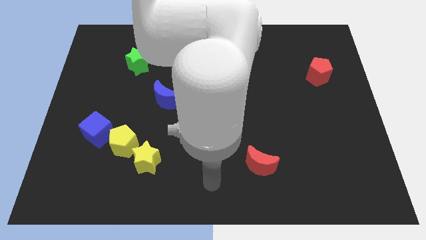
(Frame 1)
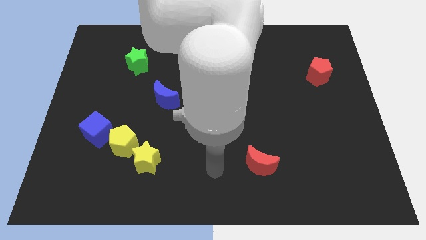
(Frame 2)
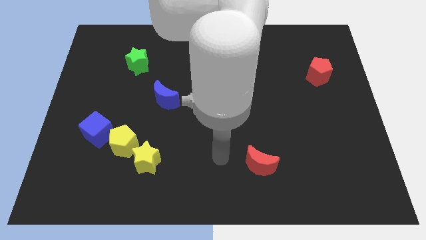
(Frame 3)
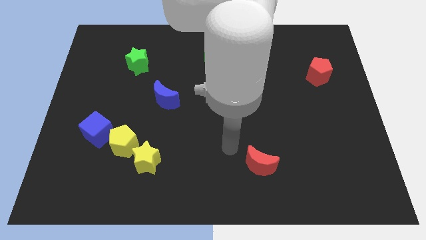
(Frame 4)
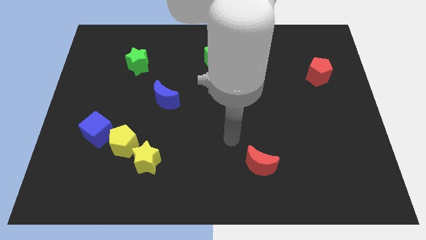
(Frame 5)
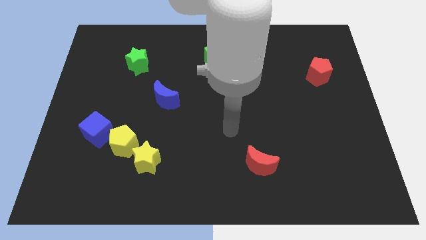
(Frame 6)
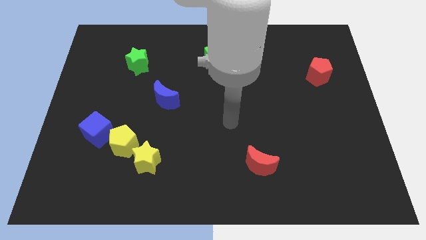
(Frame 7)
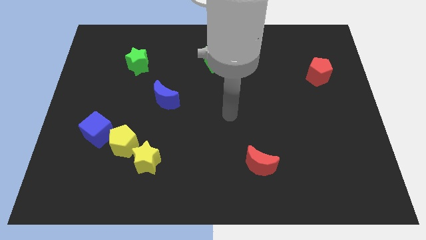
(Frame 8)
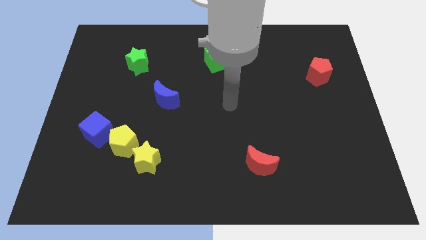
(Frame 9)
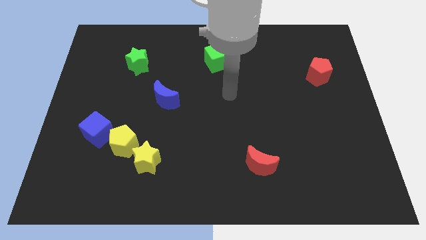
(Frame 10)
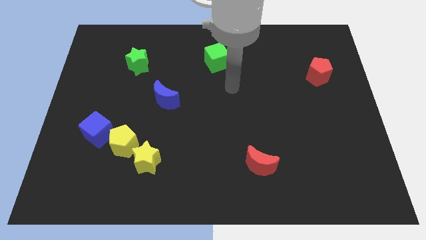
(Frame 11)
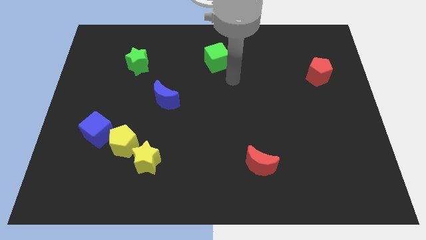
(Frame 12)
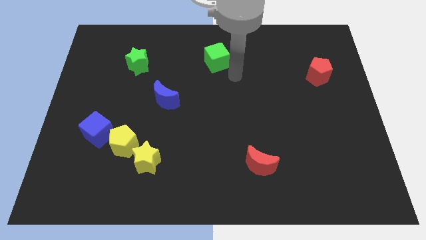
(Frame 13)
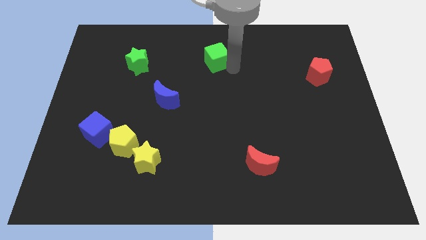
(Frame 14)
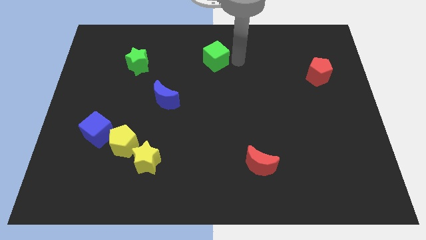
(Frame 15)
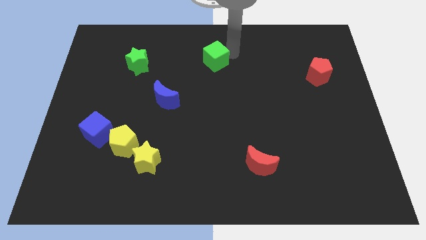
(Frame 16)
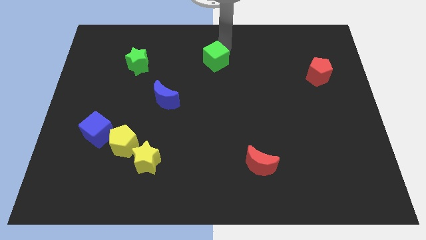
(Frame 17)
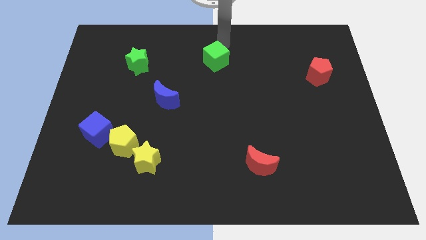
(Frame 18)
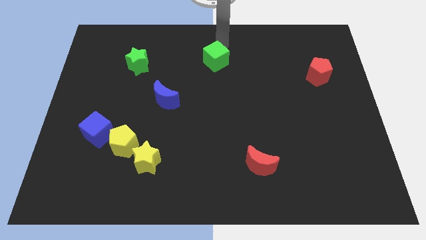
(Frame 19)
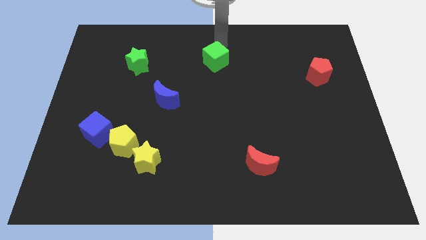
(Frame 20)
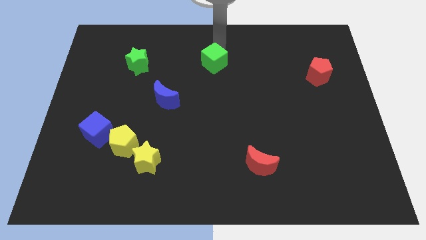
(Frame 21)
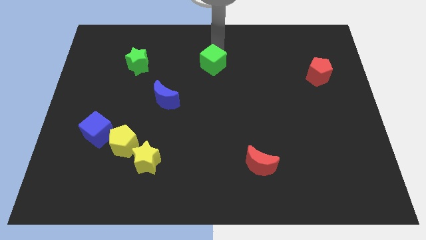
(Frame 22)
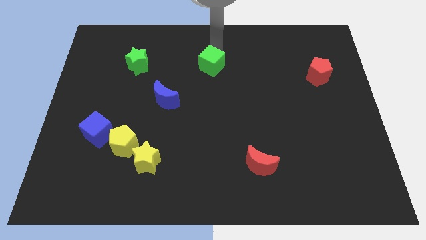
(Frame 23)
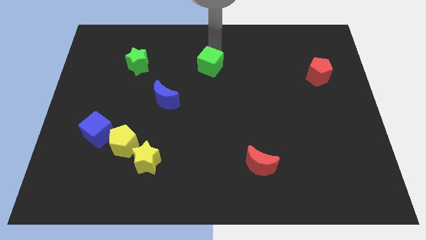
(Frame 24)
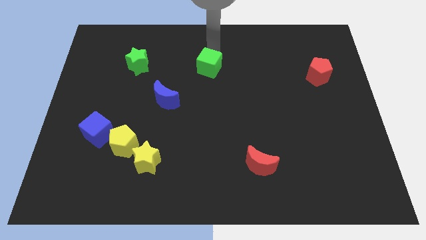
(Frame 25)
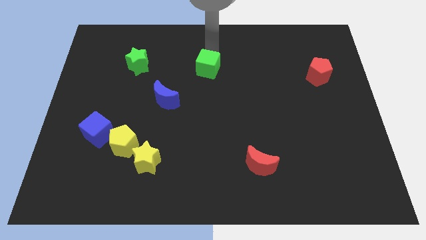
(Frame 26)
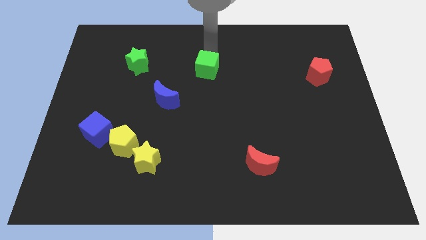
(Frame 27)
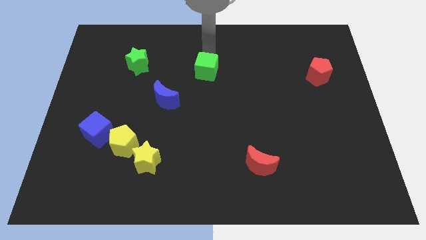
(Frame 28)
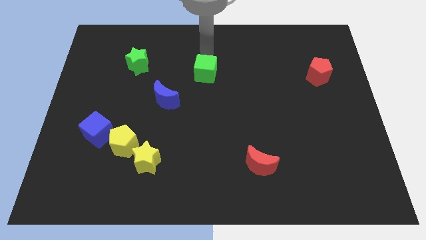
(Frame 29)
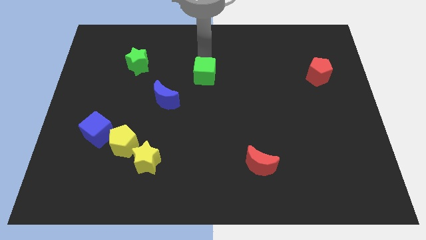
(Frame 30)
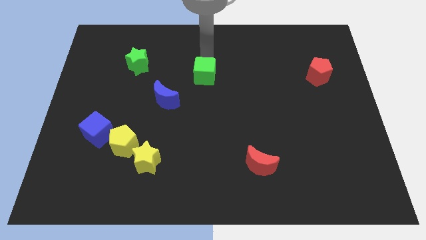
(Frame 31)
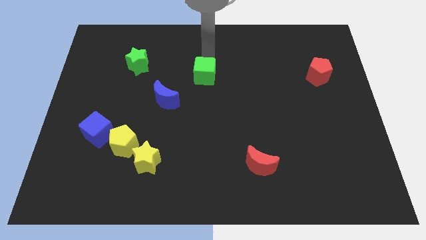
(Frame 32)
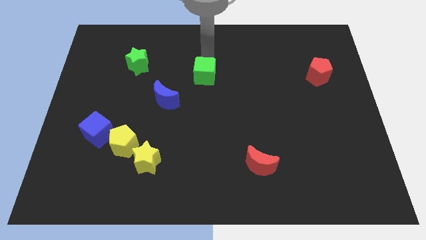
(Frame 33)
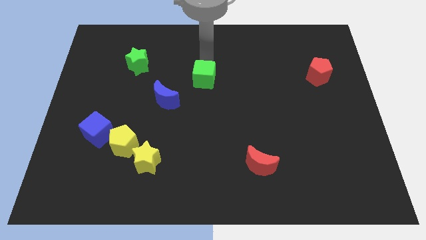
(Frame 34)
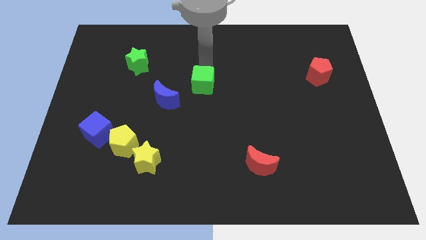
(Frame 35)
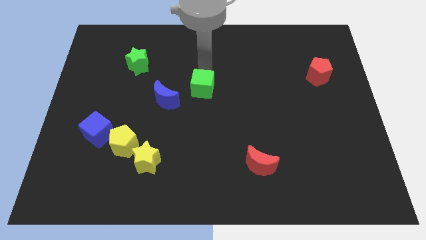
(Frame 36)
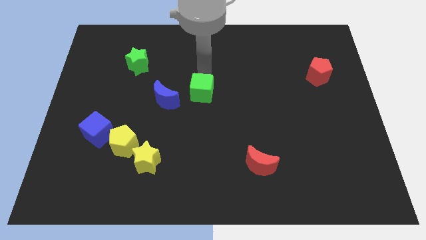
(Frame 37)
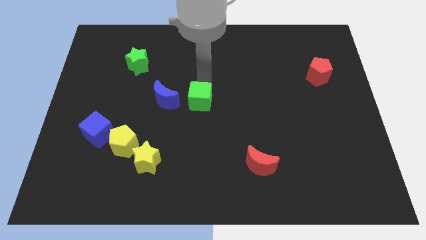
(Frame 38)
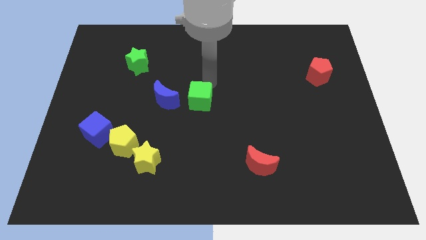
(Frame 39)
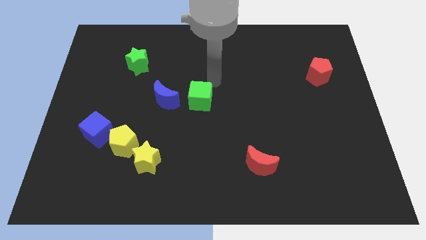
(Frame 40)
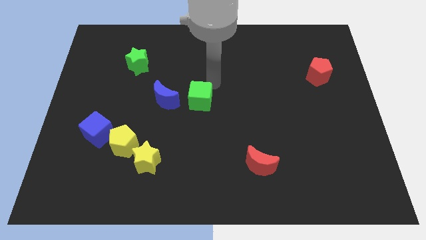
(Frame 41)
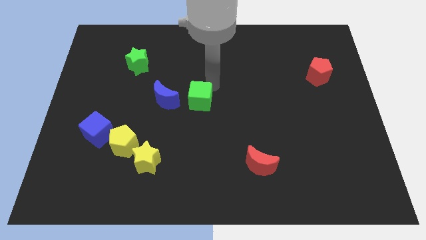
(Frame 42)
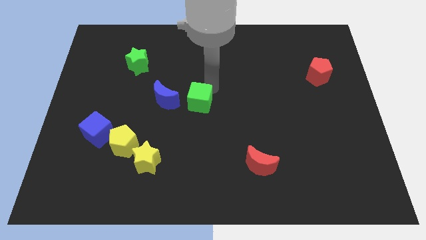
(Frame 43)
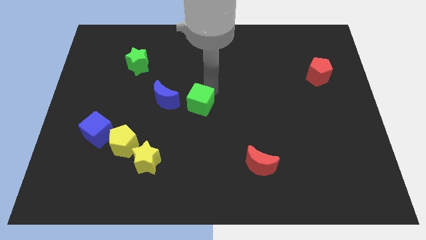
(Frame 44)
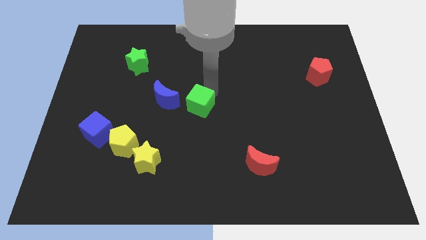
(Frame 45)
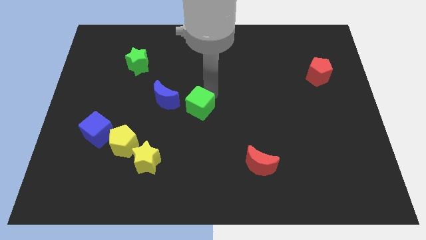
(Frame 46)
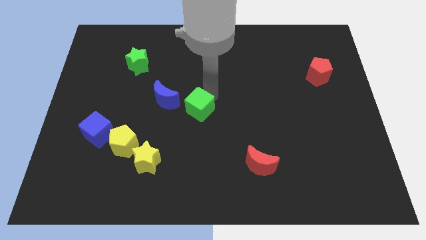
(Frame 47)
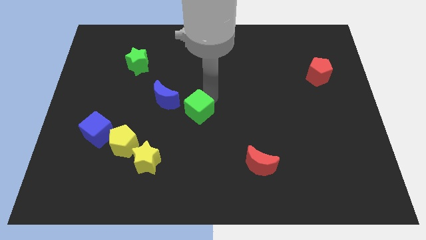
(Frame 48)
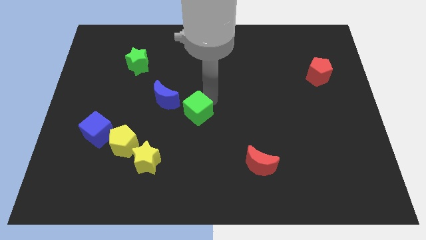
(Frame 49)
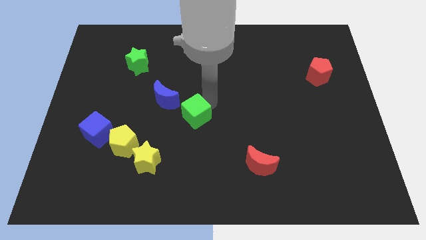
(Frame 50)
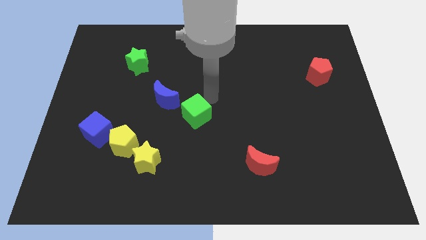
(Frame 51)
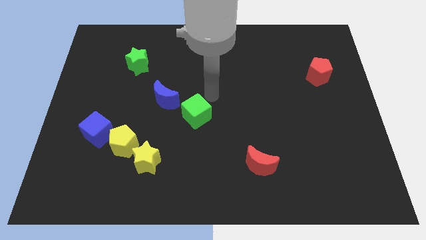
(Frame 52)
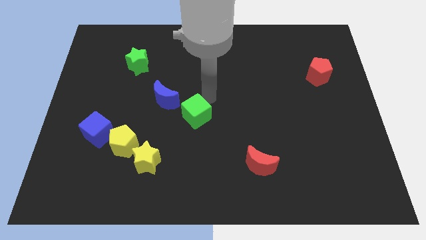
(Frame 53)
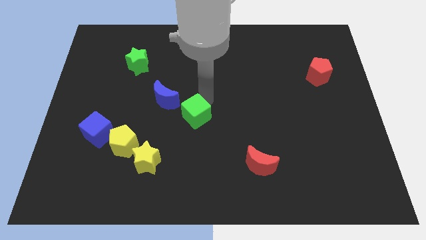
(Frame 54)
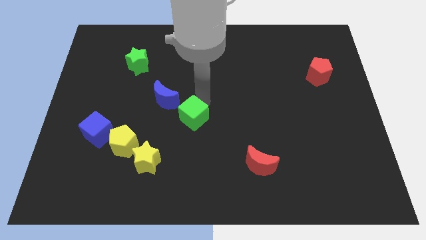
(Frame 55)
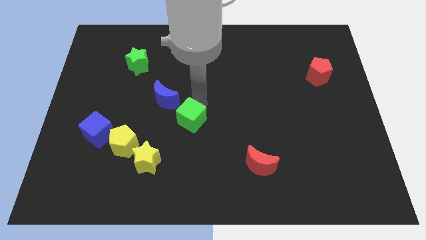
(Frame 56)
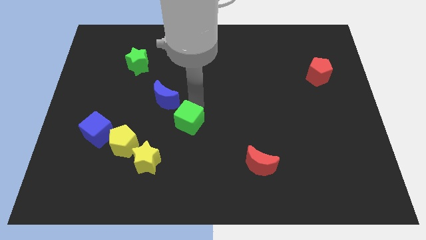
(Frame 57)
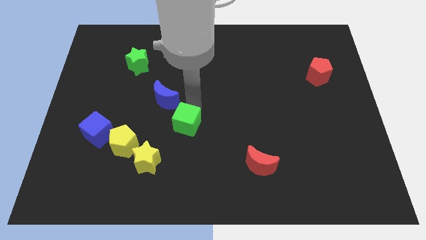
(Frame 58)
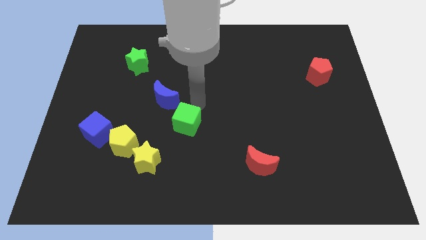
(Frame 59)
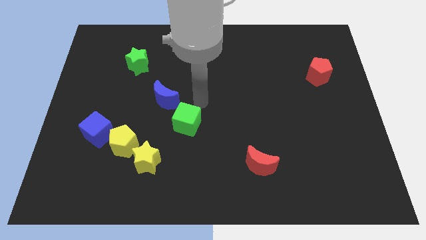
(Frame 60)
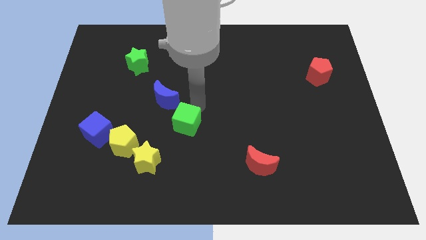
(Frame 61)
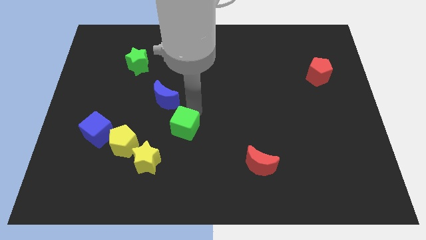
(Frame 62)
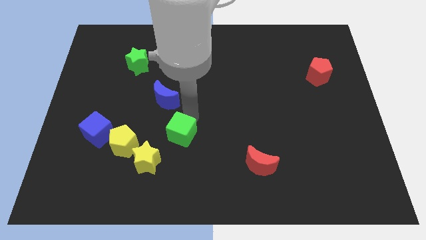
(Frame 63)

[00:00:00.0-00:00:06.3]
slide the green cube to the right side of the yellow pentagon

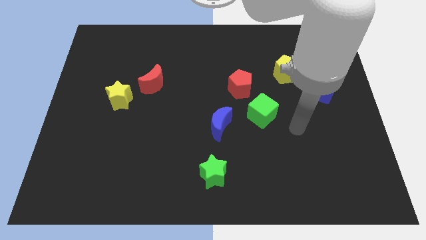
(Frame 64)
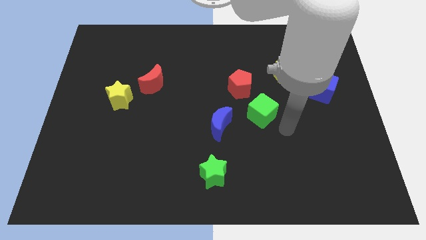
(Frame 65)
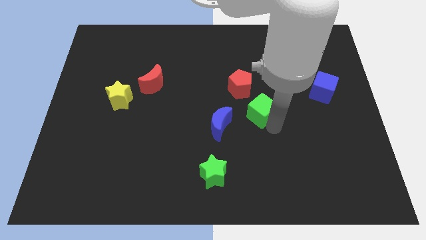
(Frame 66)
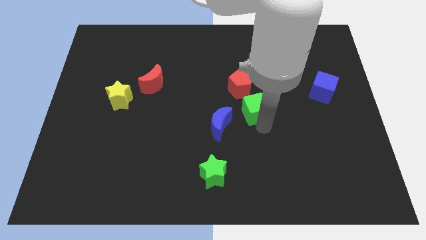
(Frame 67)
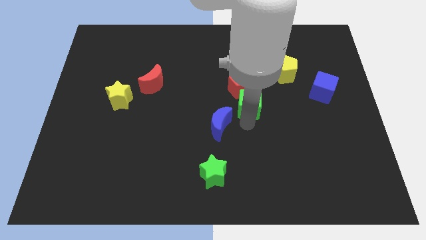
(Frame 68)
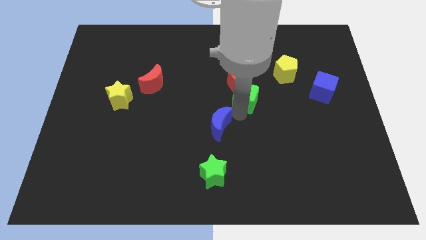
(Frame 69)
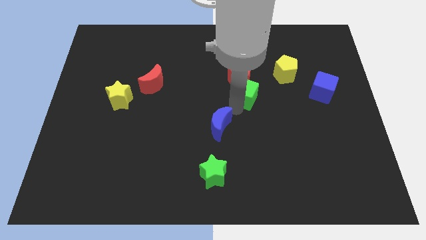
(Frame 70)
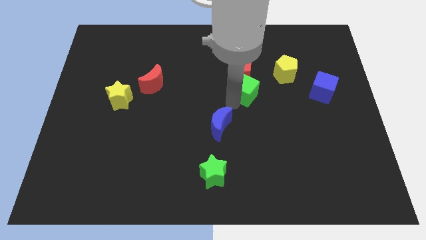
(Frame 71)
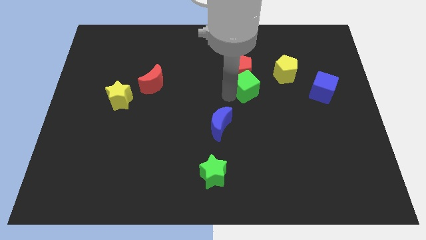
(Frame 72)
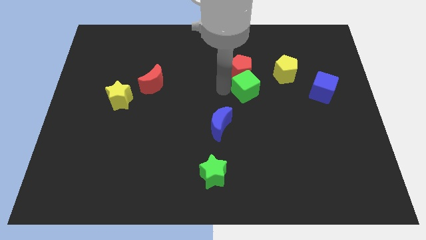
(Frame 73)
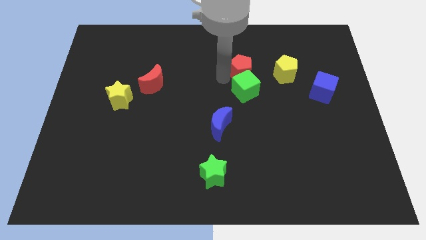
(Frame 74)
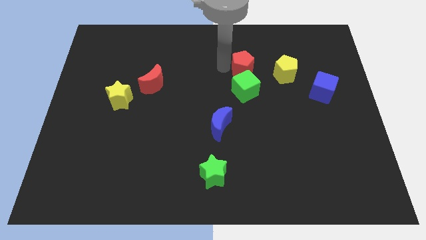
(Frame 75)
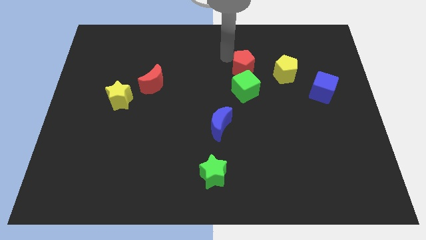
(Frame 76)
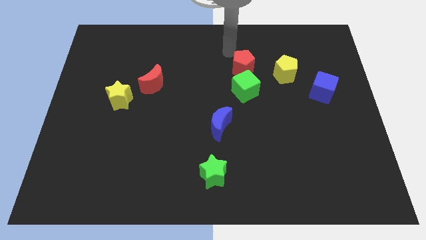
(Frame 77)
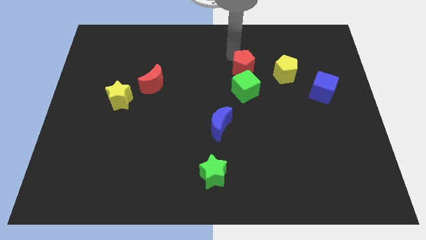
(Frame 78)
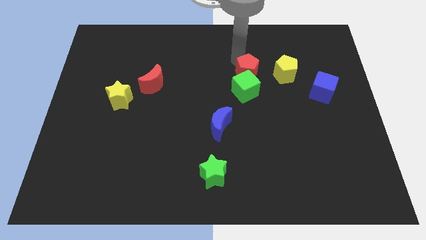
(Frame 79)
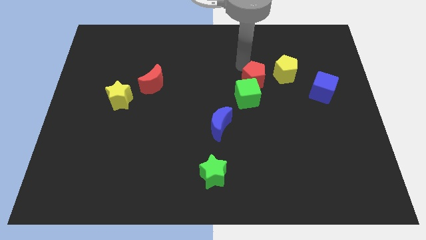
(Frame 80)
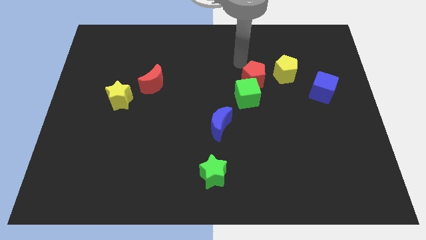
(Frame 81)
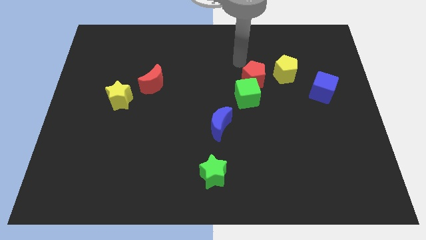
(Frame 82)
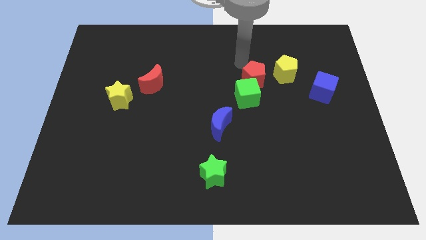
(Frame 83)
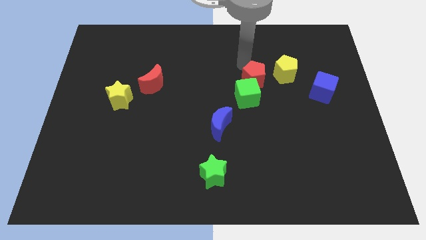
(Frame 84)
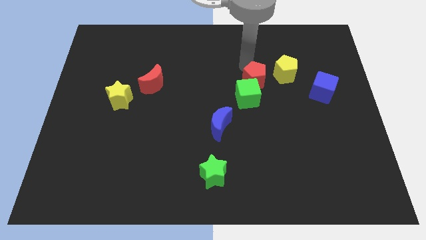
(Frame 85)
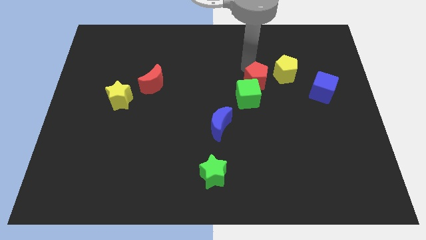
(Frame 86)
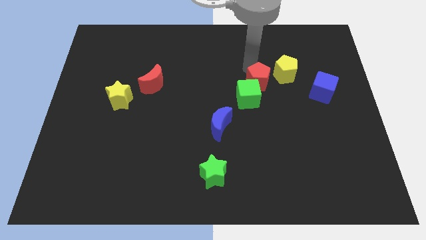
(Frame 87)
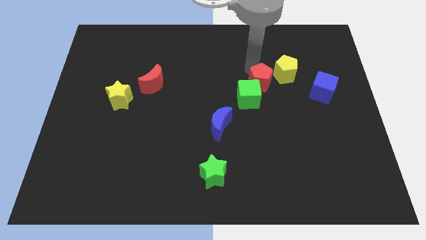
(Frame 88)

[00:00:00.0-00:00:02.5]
slide the red pentagon to the left side of the blue cube
